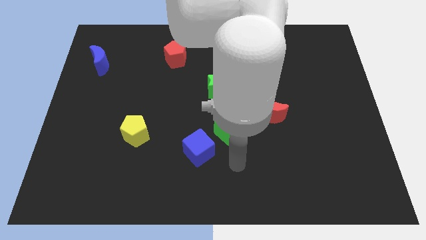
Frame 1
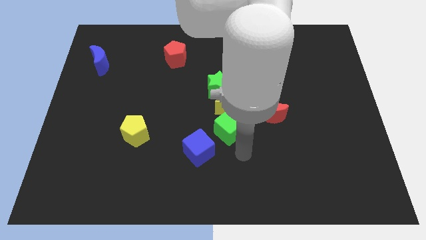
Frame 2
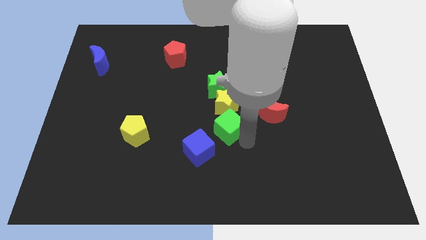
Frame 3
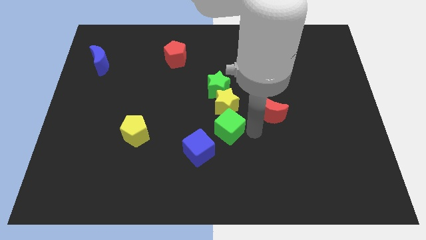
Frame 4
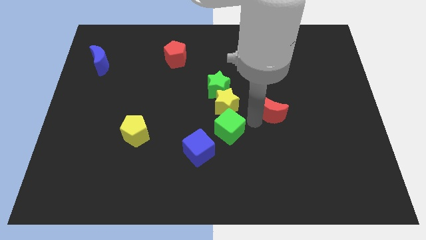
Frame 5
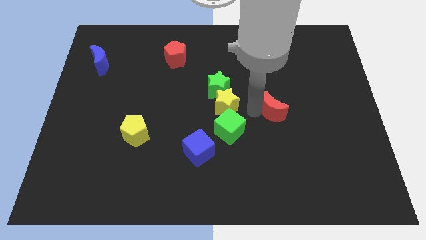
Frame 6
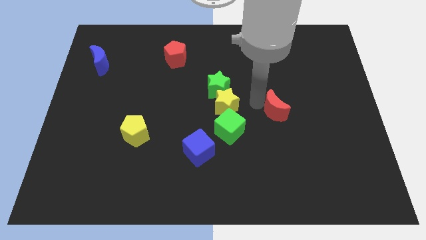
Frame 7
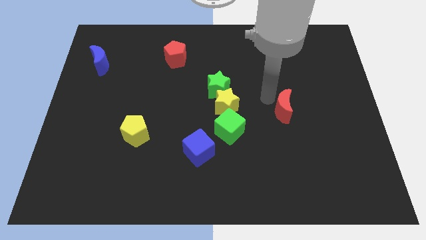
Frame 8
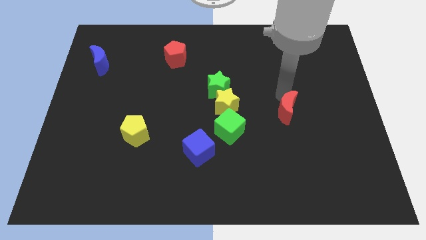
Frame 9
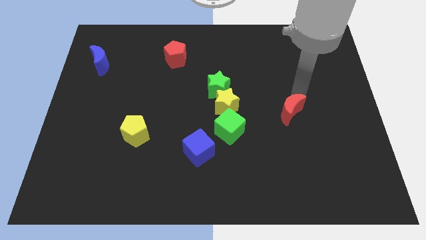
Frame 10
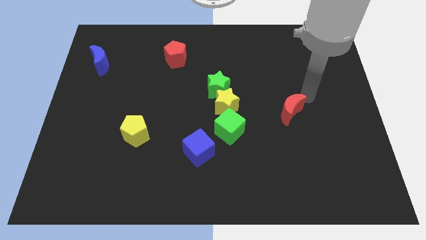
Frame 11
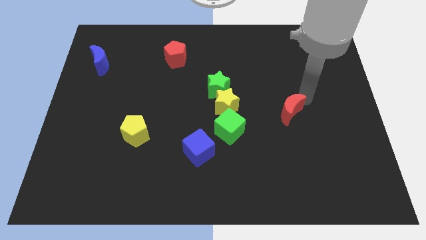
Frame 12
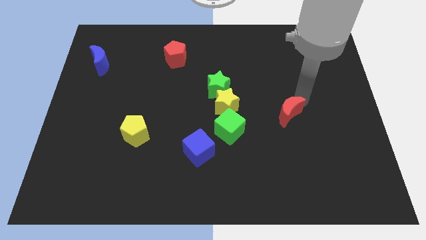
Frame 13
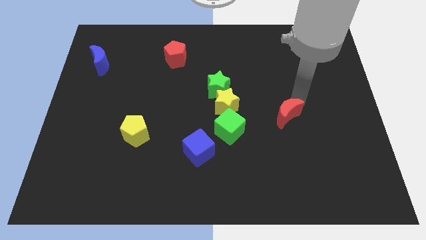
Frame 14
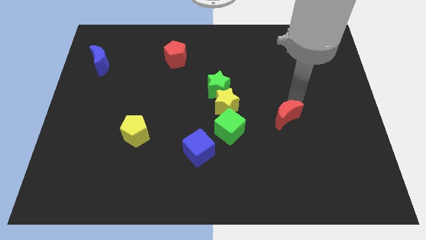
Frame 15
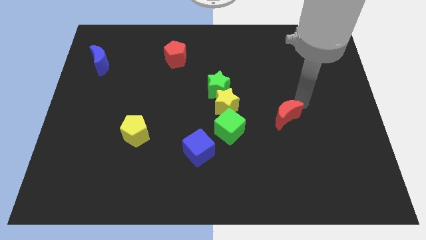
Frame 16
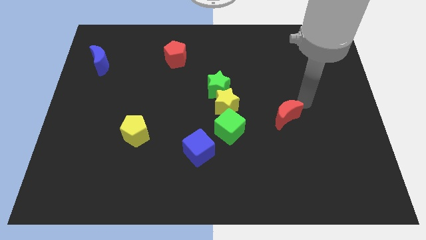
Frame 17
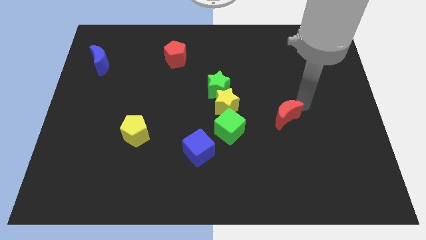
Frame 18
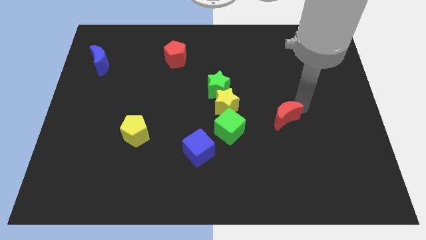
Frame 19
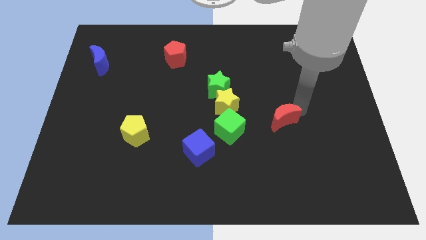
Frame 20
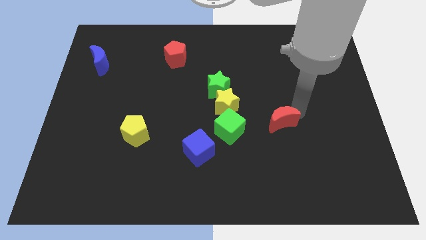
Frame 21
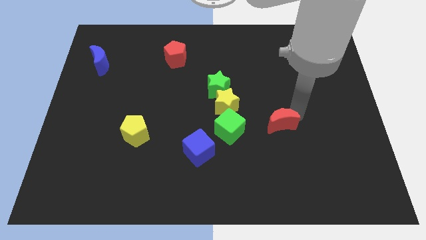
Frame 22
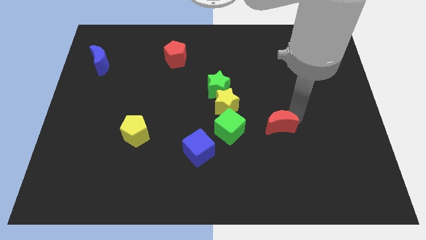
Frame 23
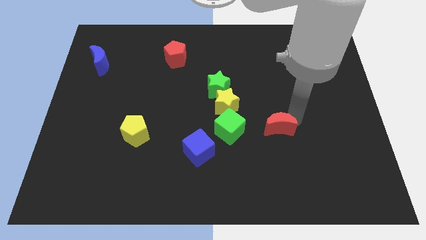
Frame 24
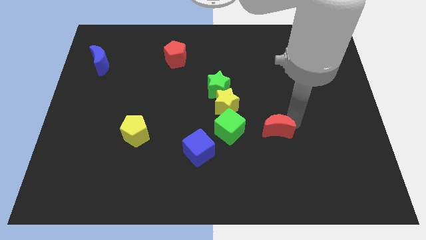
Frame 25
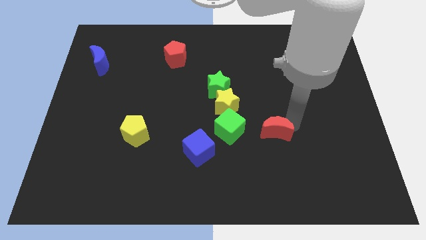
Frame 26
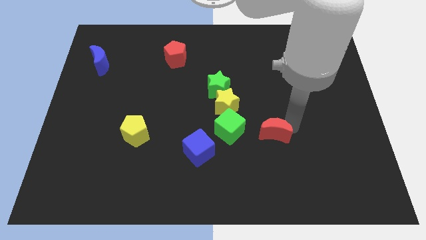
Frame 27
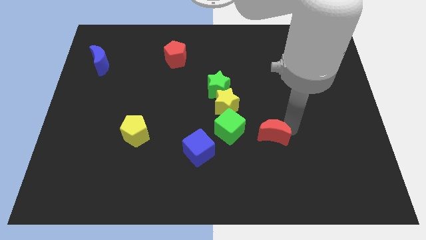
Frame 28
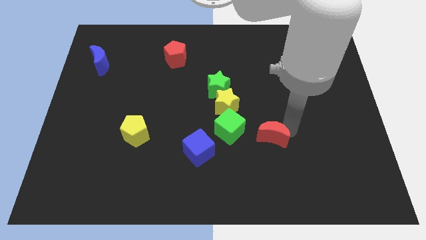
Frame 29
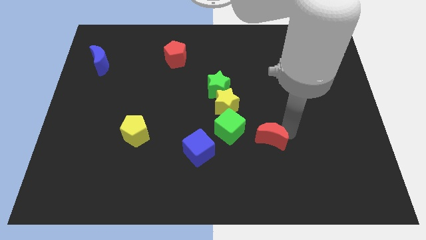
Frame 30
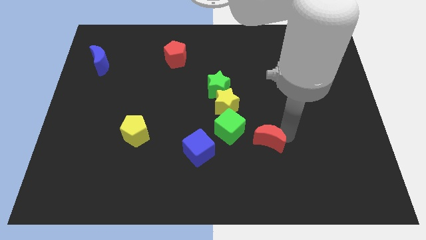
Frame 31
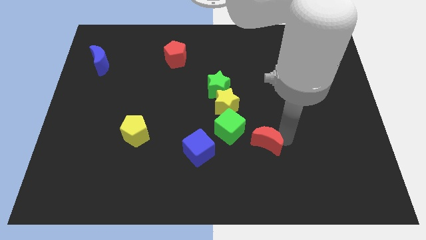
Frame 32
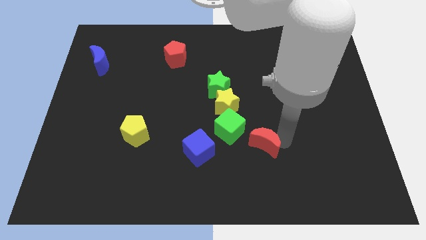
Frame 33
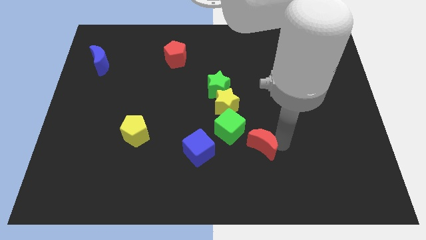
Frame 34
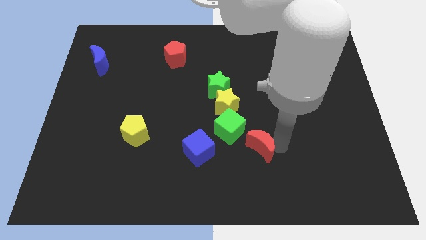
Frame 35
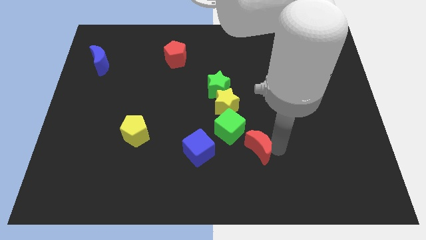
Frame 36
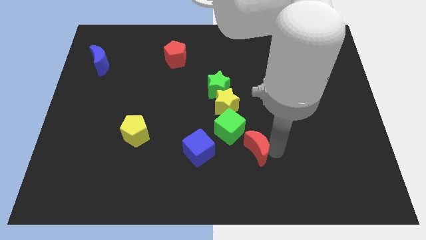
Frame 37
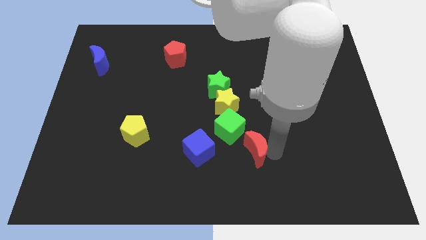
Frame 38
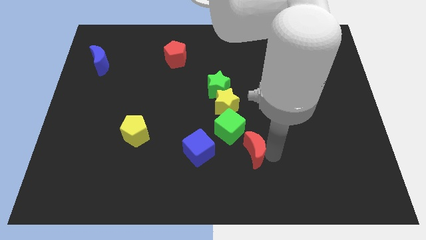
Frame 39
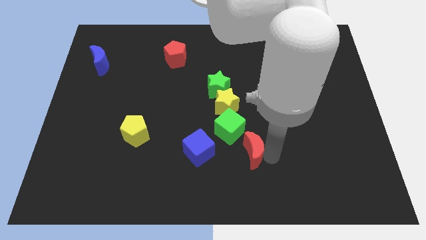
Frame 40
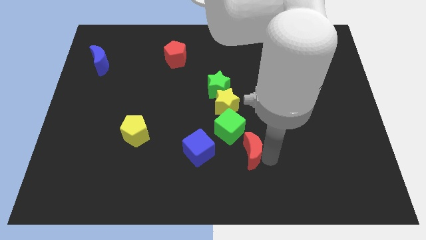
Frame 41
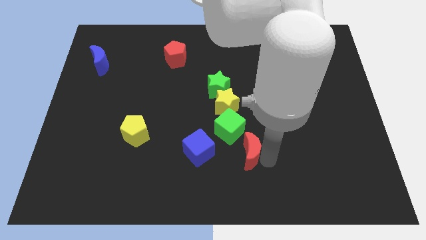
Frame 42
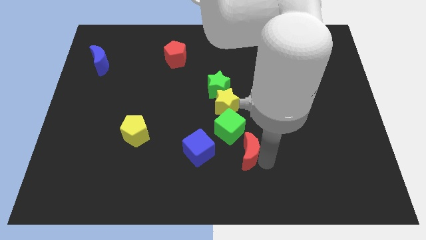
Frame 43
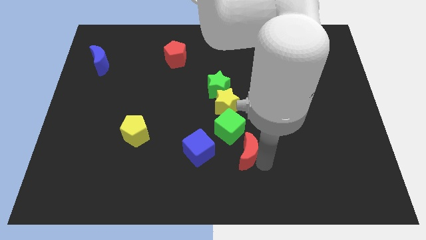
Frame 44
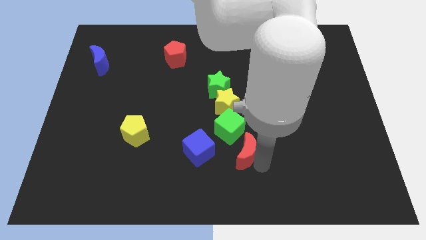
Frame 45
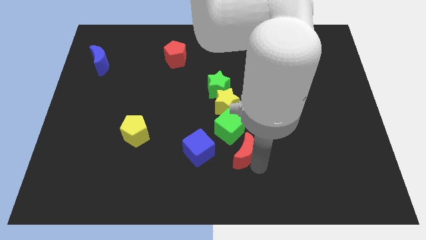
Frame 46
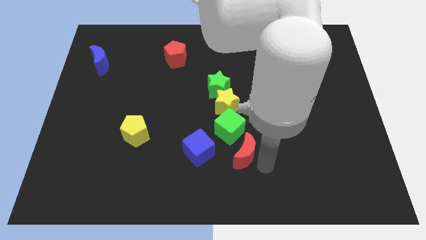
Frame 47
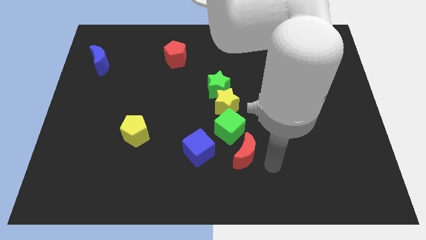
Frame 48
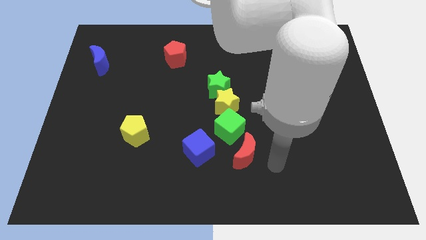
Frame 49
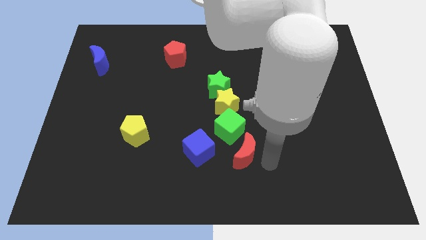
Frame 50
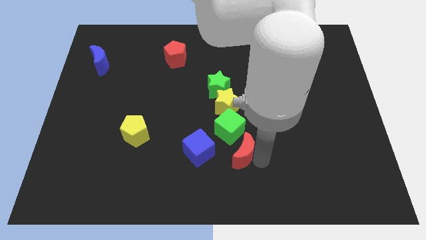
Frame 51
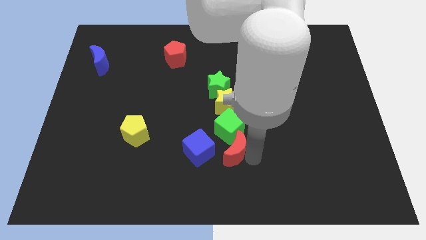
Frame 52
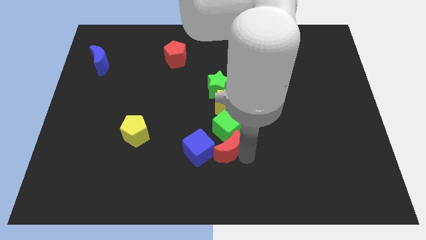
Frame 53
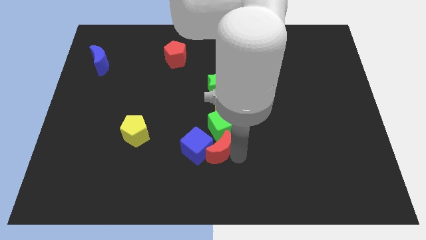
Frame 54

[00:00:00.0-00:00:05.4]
slide the red moon to the left a little

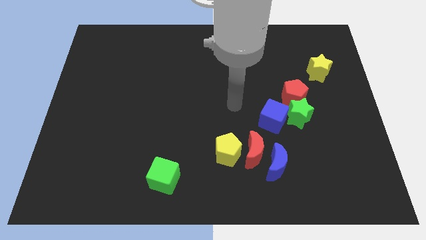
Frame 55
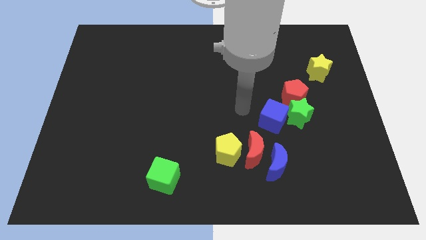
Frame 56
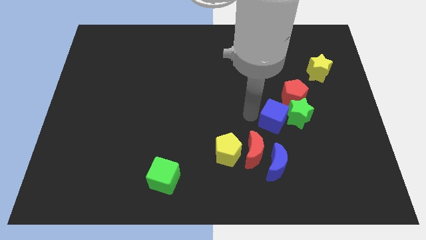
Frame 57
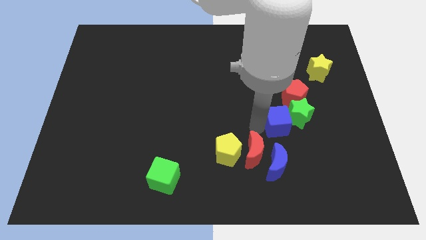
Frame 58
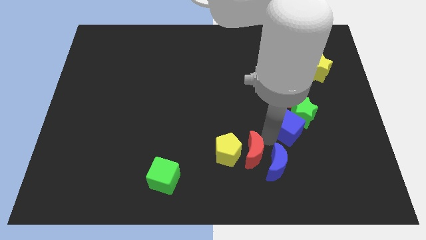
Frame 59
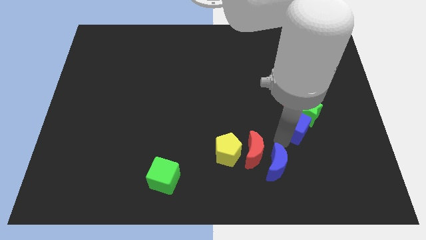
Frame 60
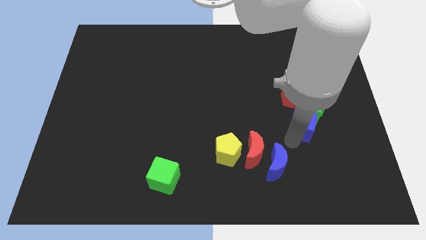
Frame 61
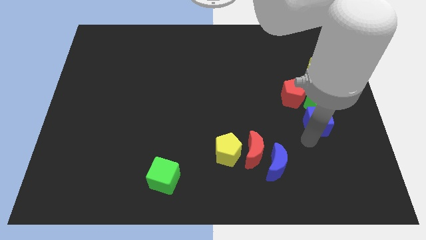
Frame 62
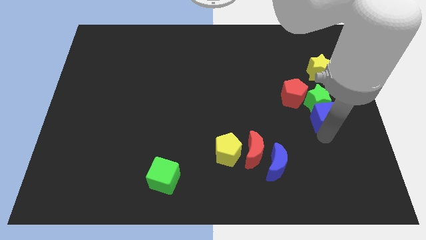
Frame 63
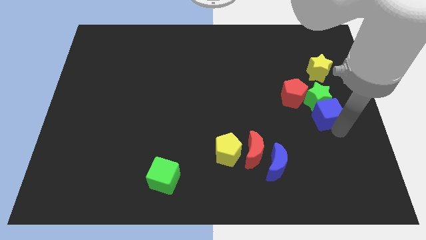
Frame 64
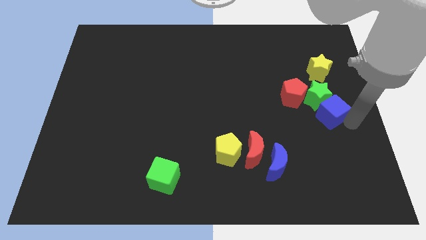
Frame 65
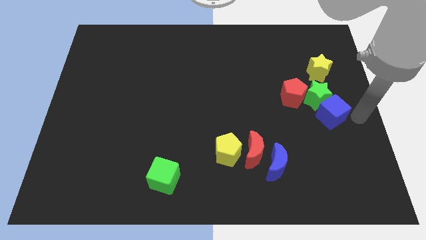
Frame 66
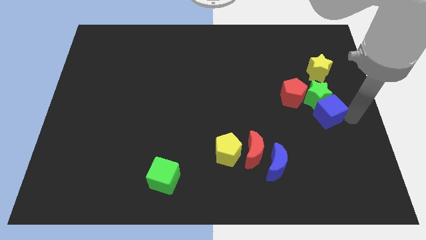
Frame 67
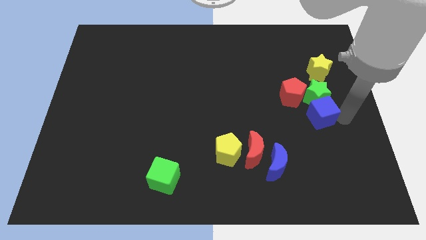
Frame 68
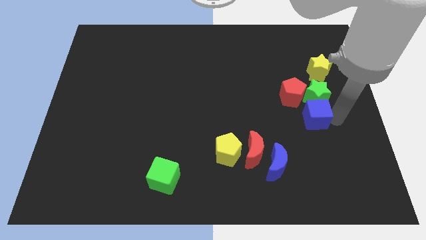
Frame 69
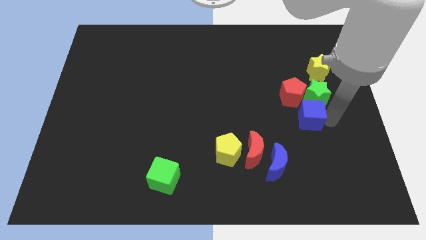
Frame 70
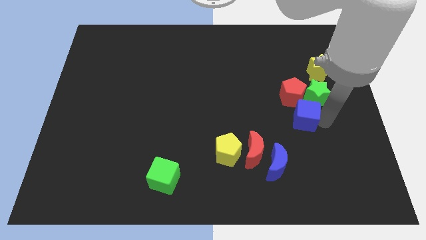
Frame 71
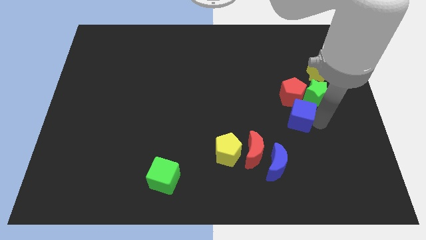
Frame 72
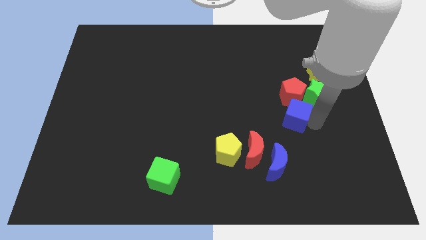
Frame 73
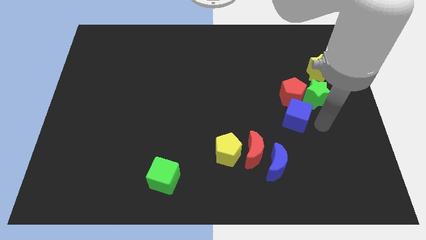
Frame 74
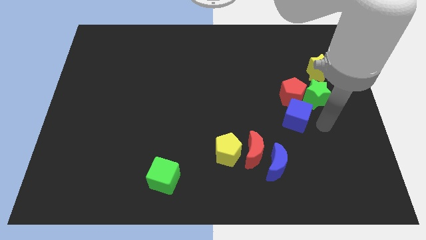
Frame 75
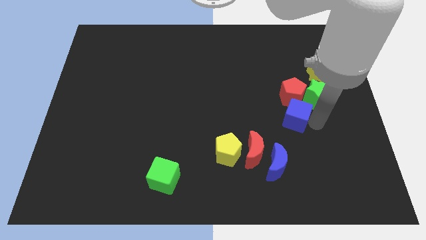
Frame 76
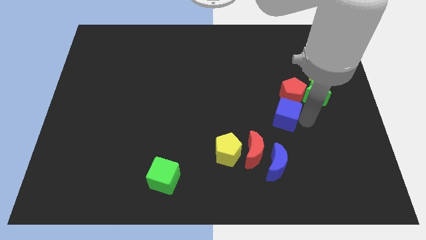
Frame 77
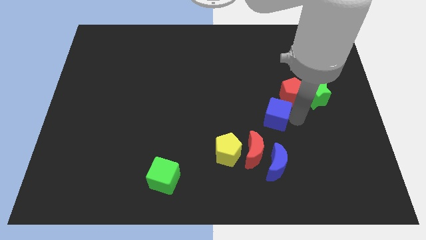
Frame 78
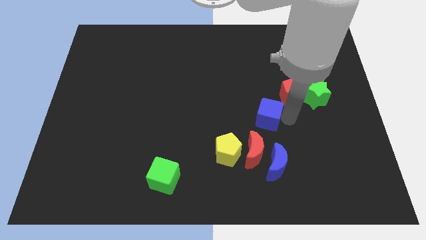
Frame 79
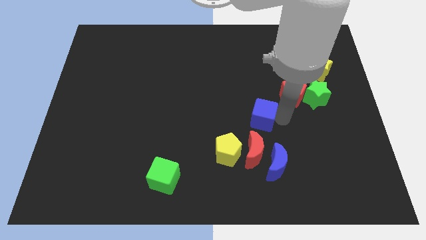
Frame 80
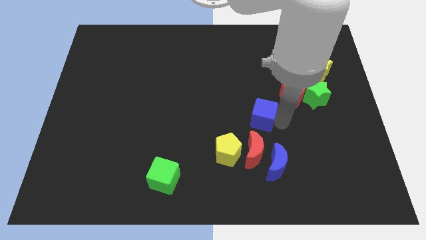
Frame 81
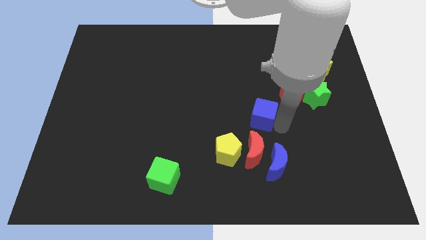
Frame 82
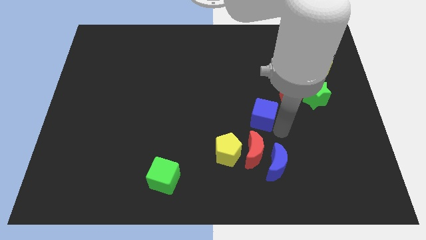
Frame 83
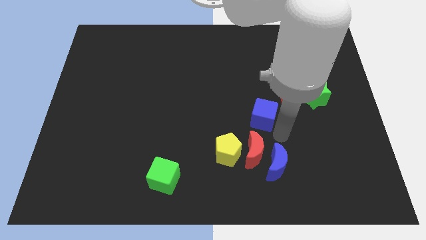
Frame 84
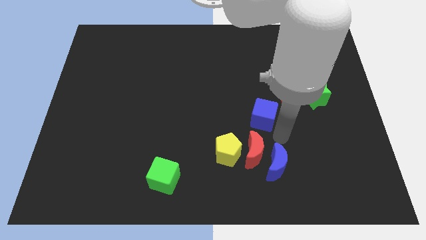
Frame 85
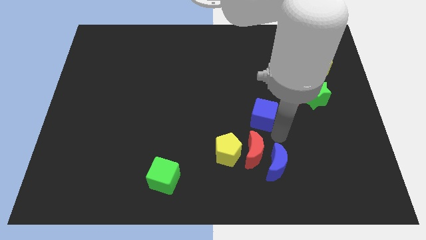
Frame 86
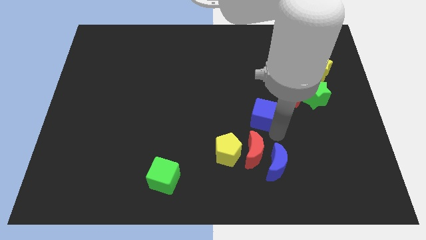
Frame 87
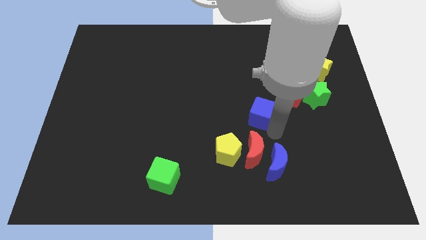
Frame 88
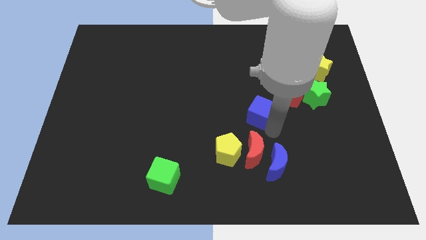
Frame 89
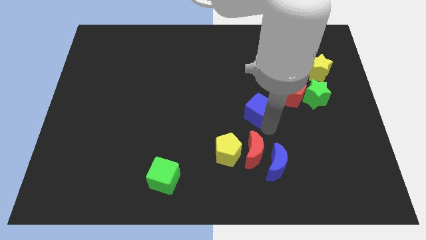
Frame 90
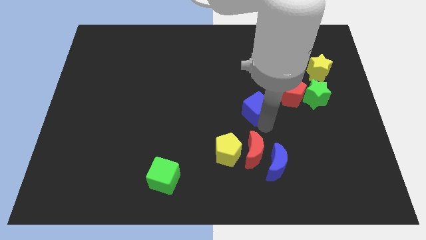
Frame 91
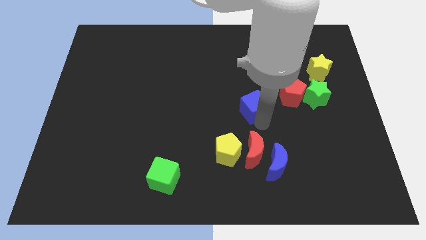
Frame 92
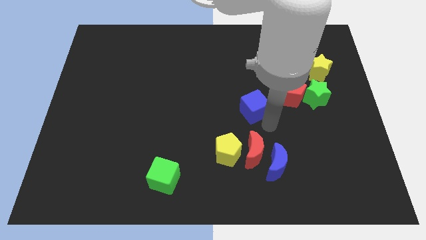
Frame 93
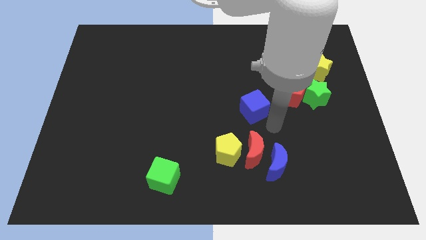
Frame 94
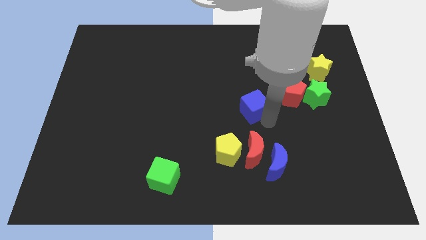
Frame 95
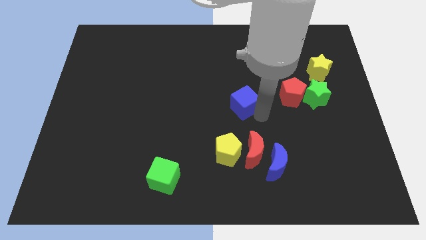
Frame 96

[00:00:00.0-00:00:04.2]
slightly move the blue cube upwards and then to the left
